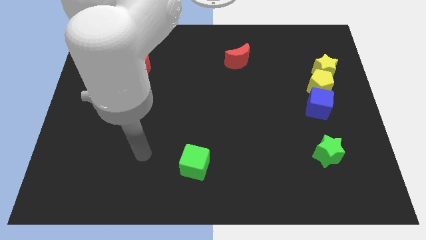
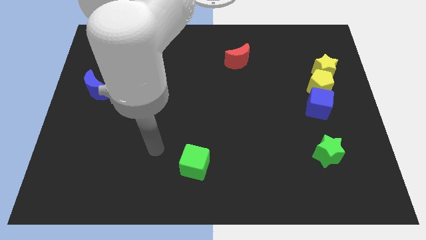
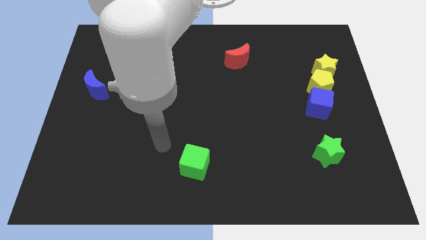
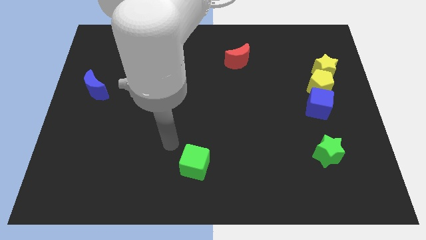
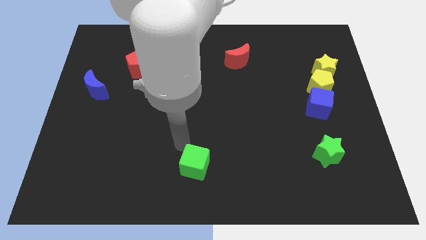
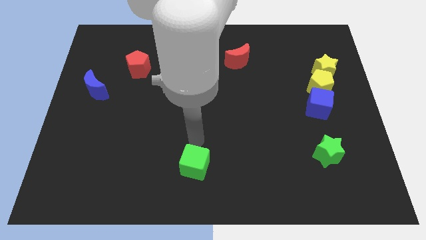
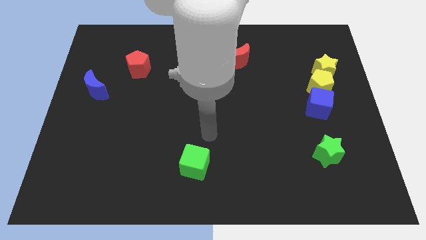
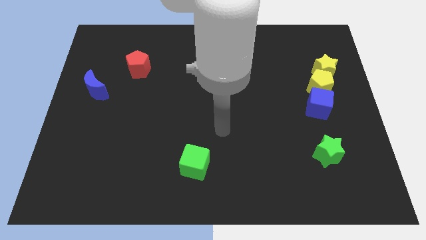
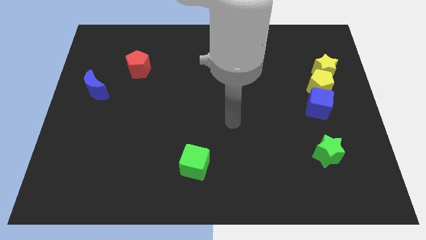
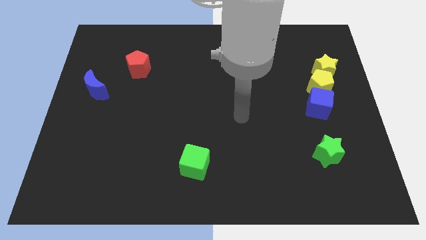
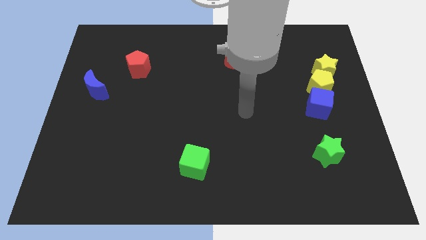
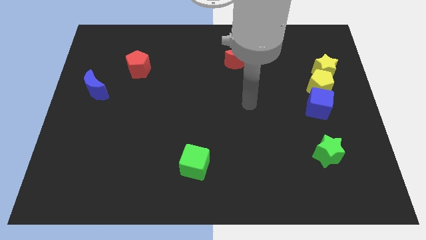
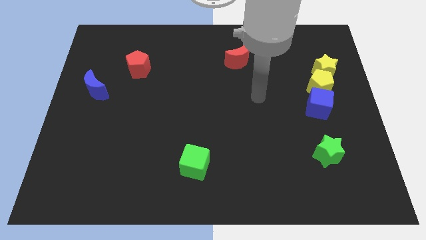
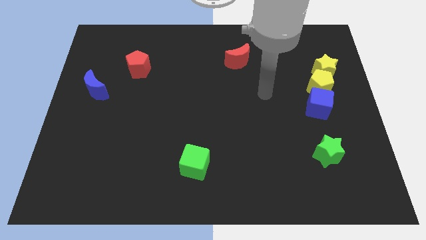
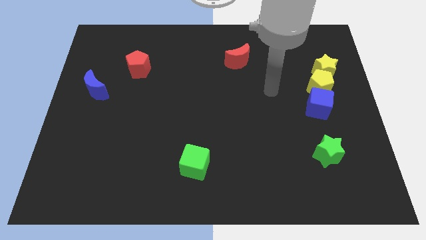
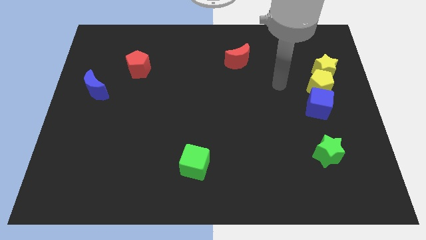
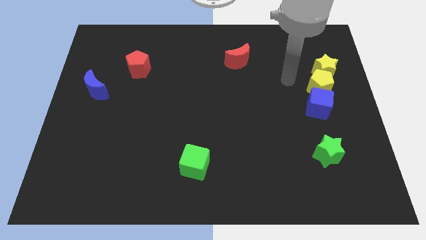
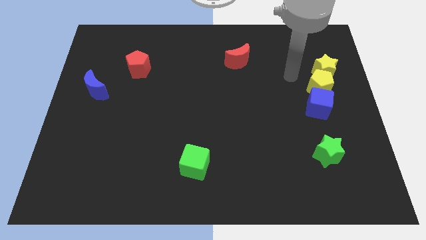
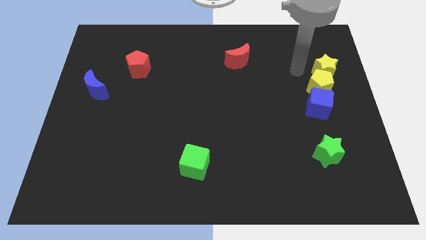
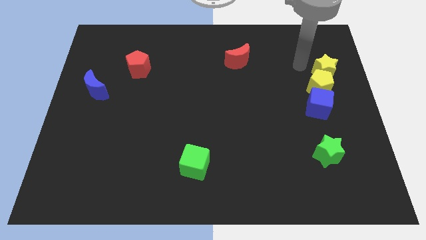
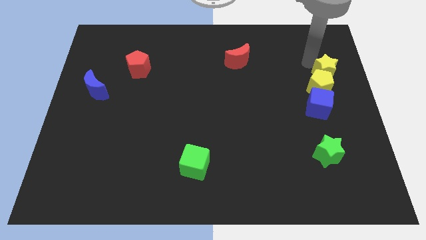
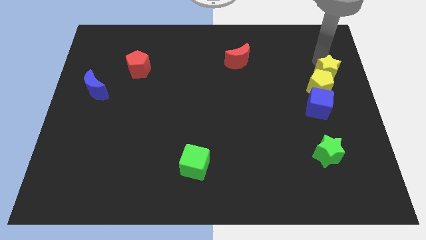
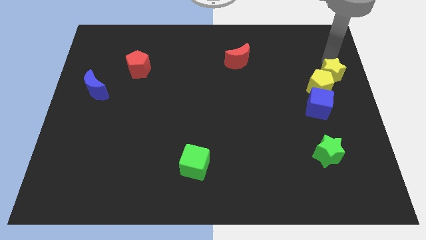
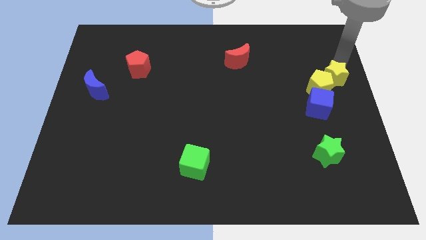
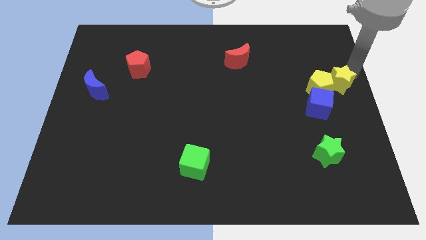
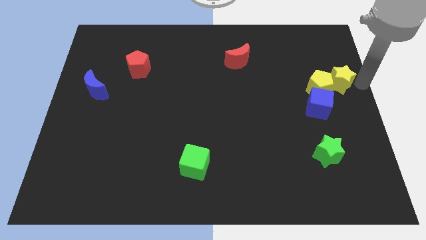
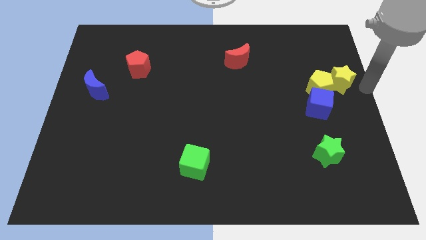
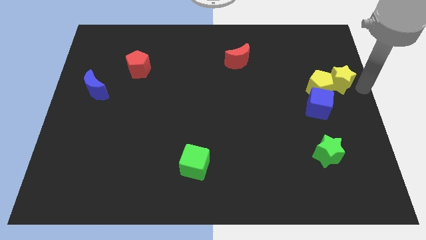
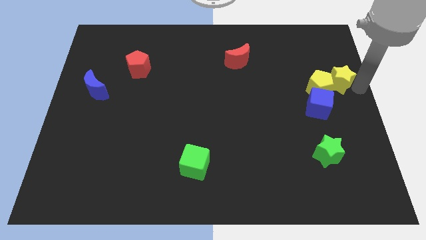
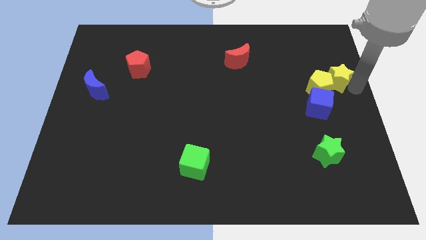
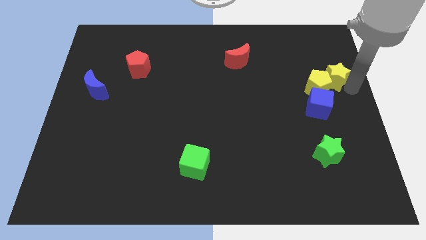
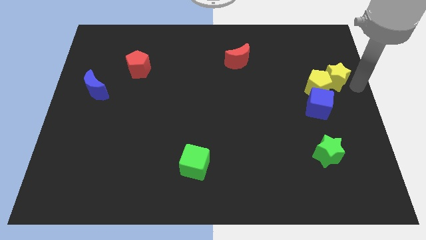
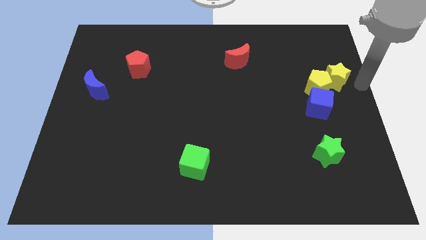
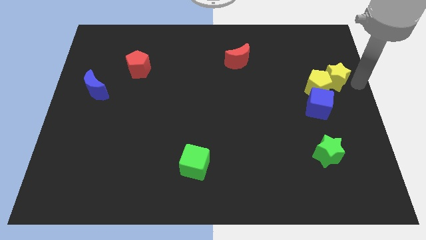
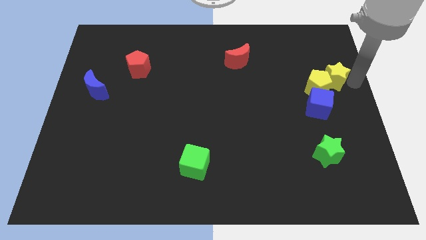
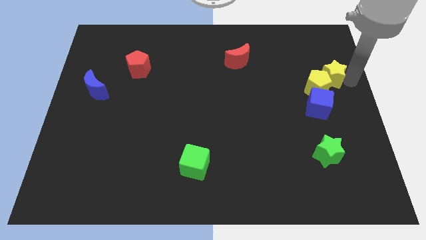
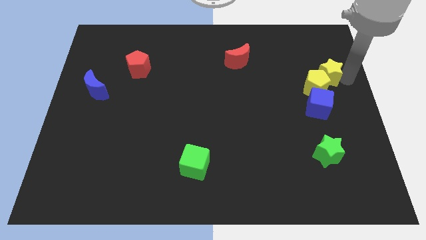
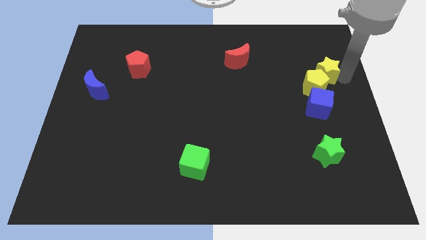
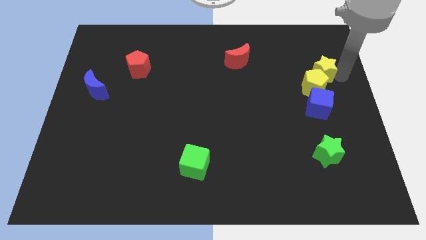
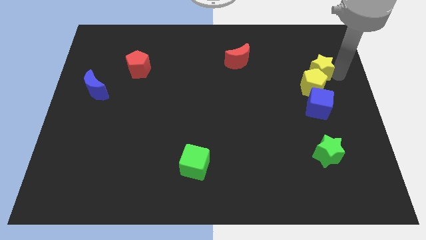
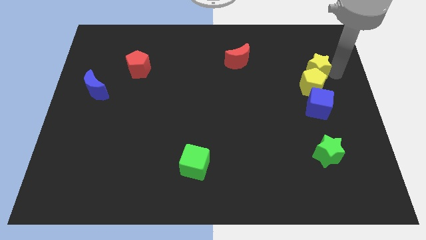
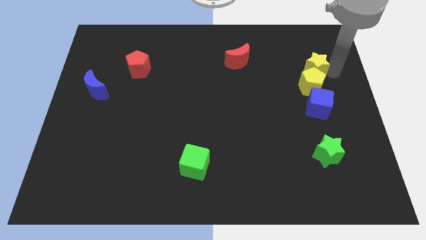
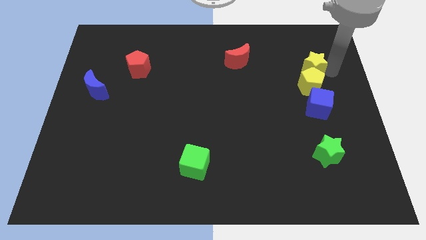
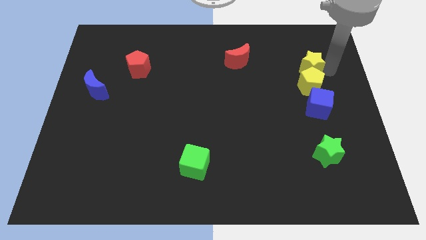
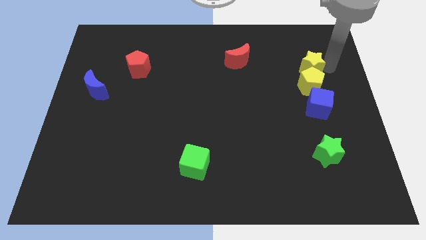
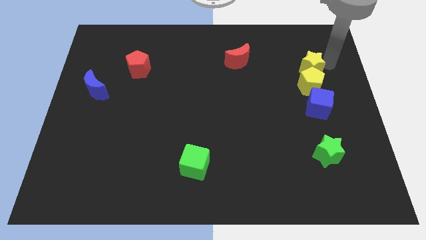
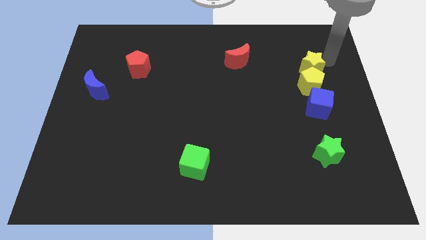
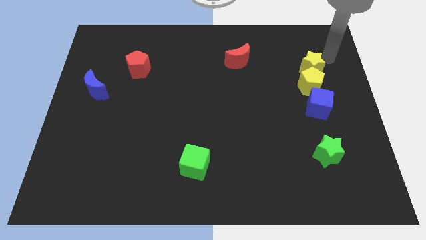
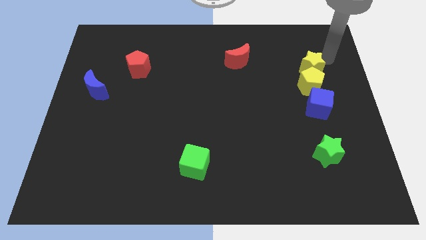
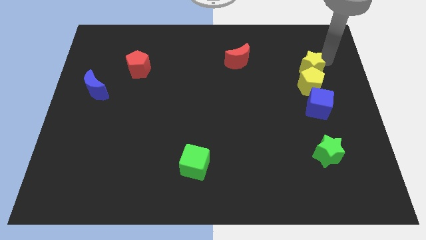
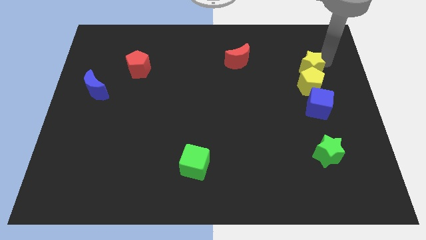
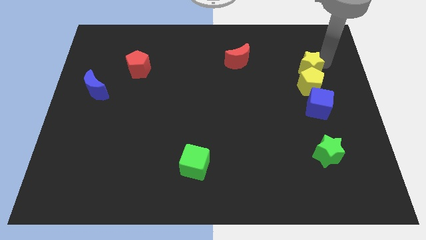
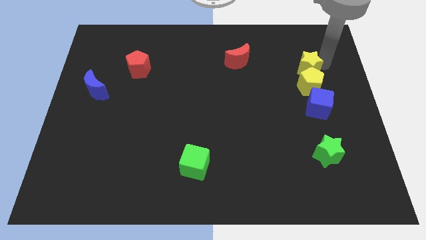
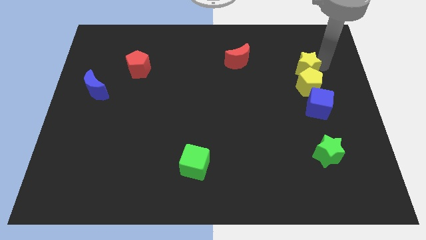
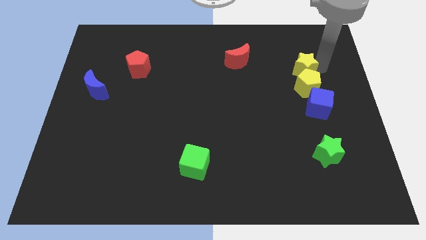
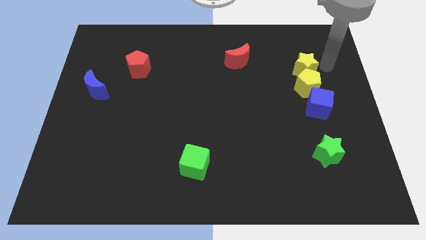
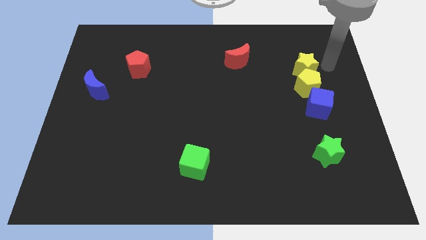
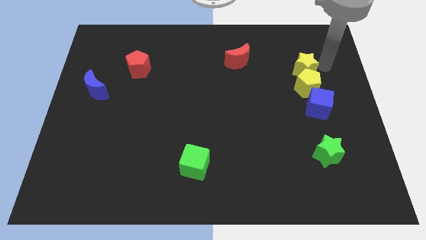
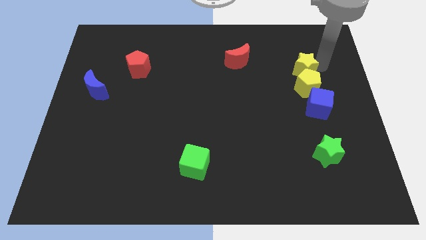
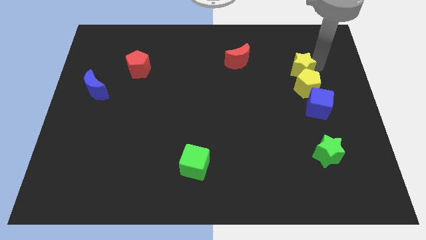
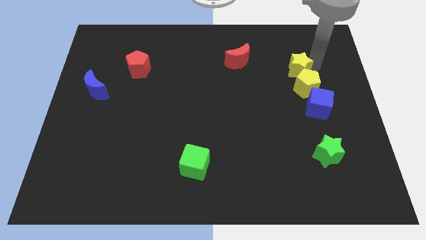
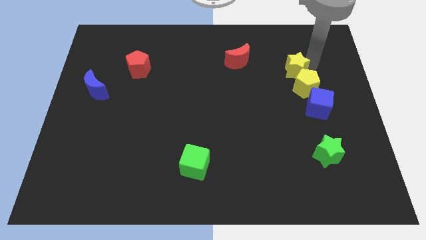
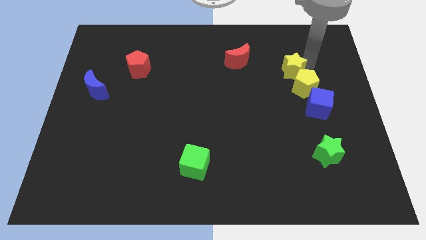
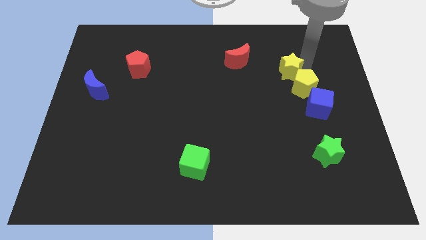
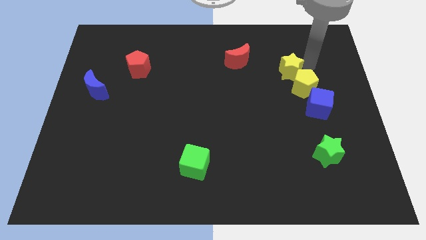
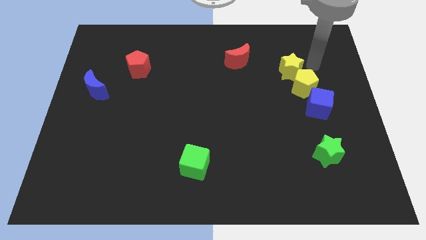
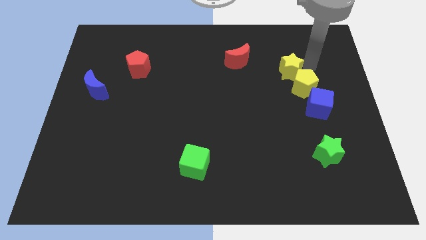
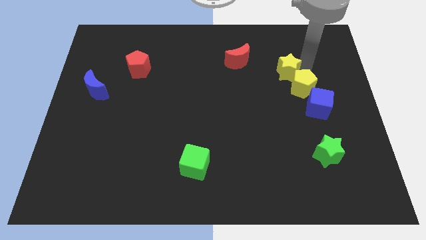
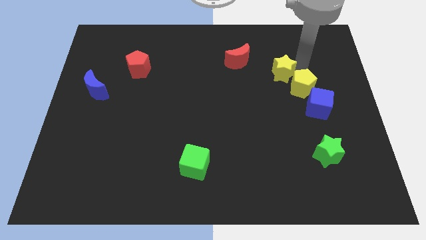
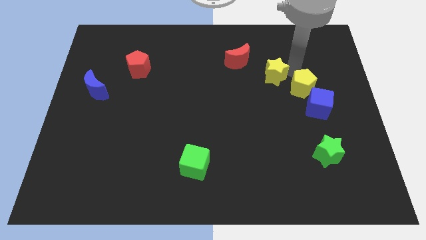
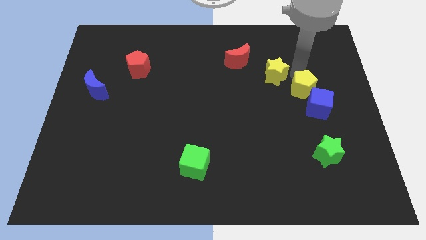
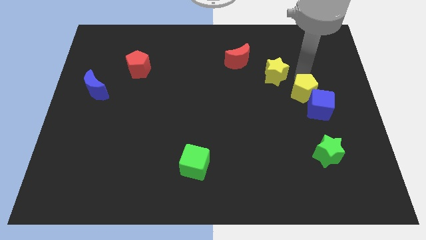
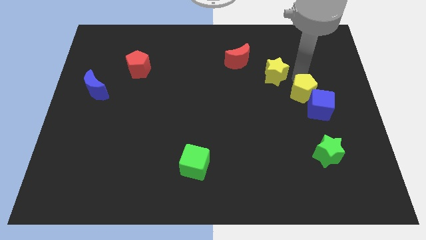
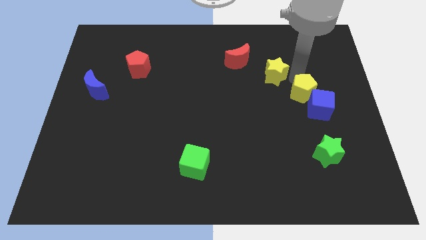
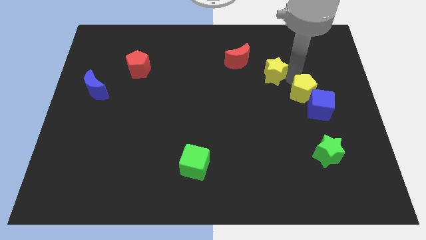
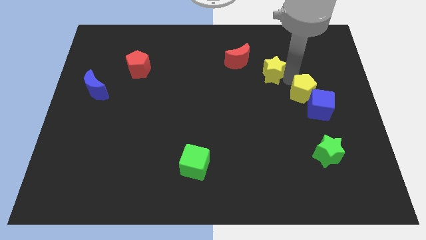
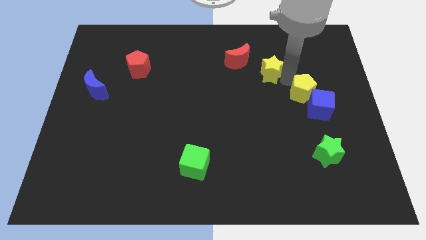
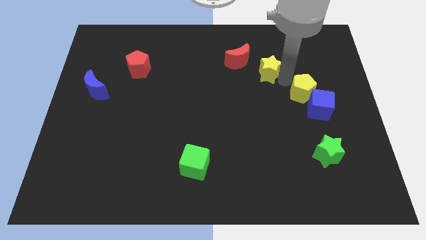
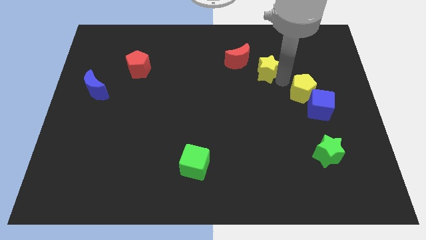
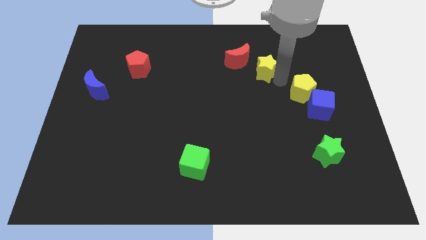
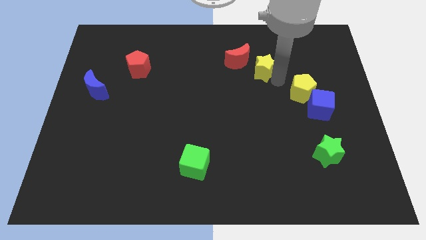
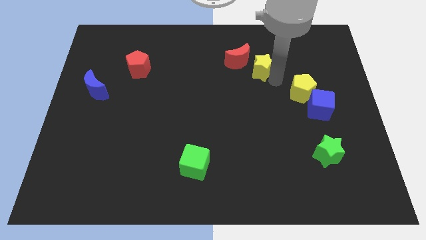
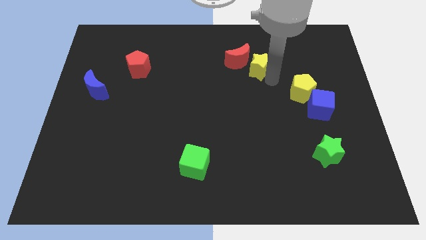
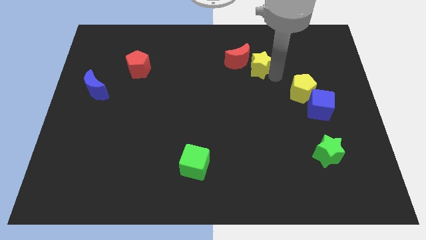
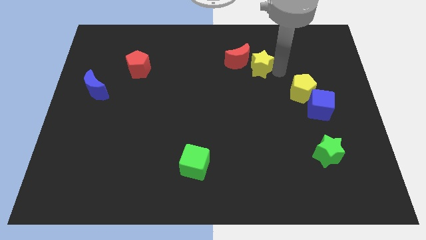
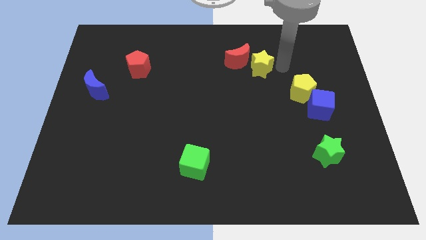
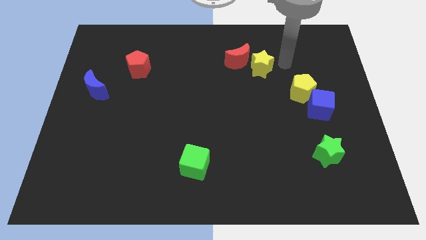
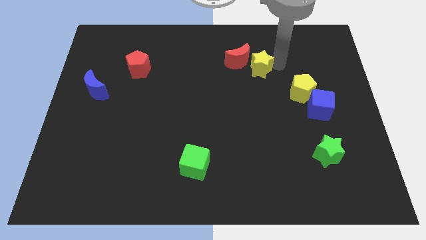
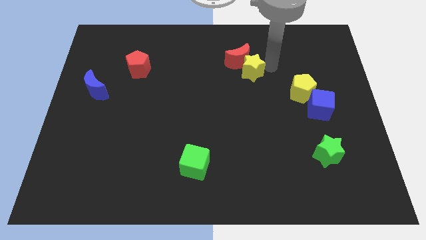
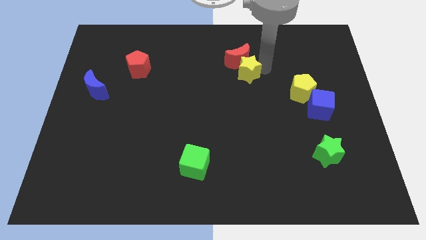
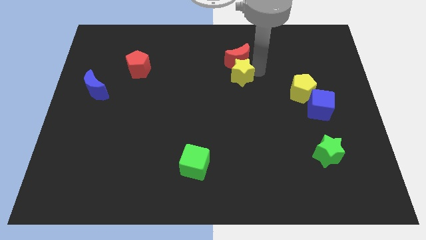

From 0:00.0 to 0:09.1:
push the yellow star to the left
